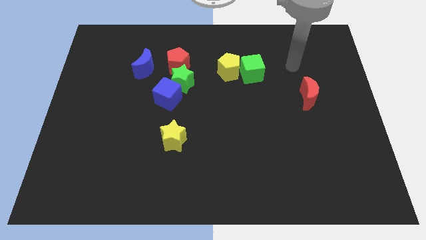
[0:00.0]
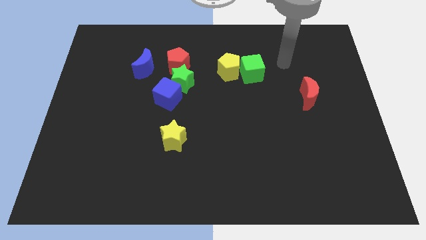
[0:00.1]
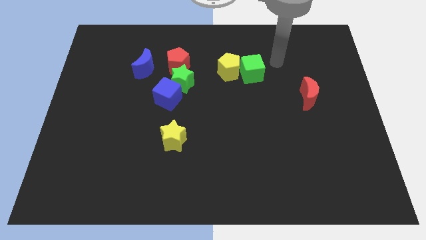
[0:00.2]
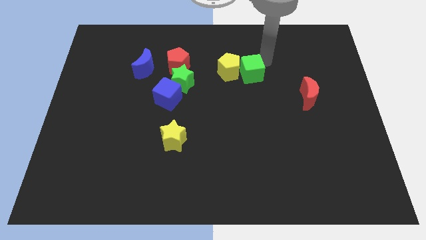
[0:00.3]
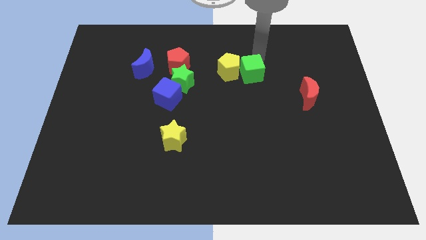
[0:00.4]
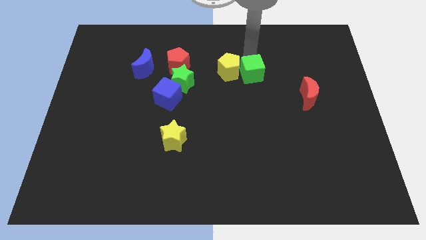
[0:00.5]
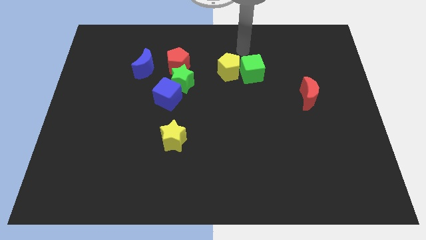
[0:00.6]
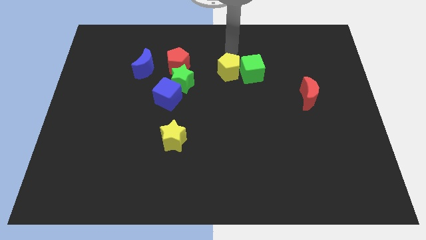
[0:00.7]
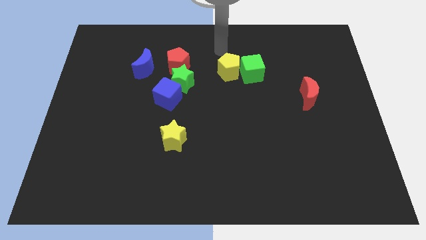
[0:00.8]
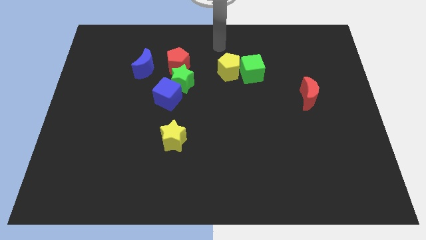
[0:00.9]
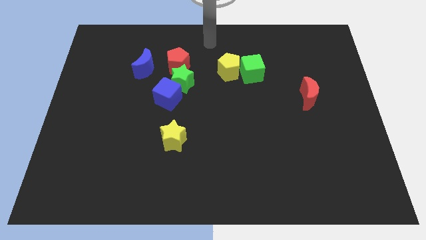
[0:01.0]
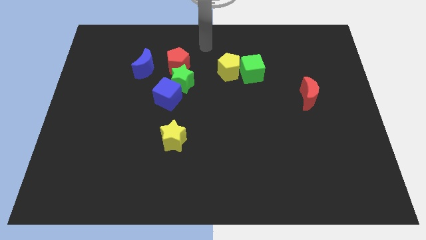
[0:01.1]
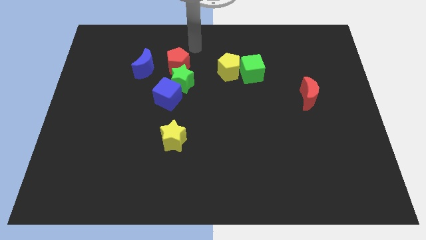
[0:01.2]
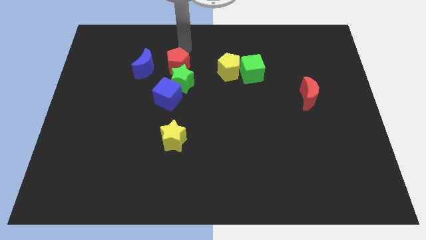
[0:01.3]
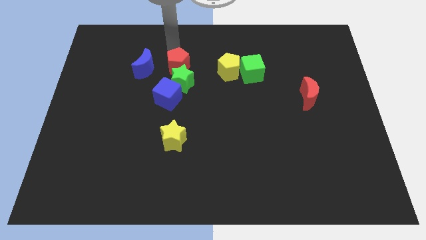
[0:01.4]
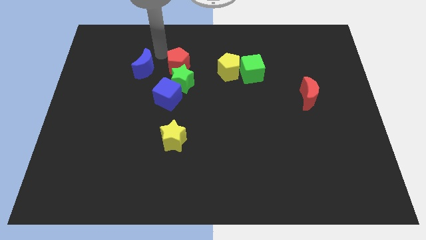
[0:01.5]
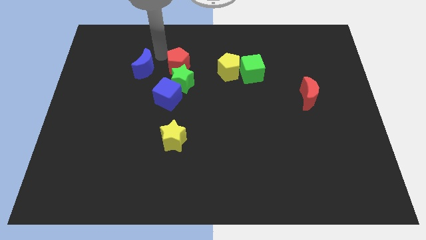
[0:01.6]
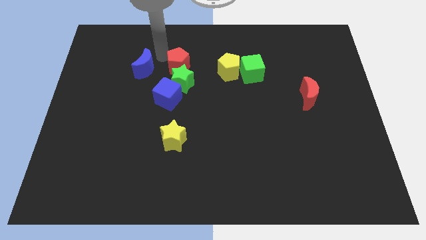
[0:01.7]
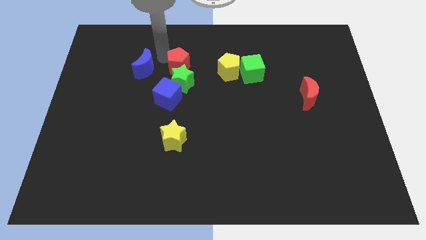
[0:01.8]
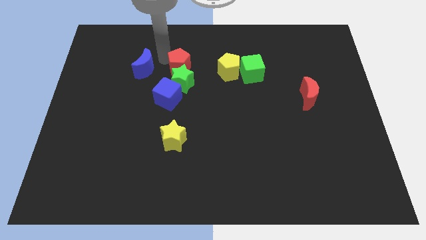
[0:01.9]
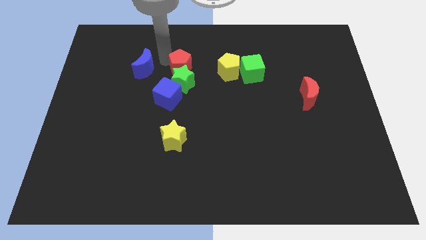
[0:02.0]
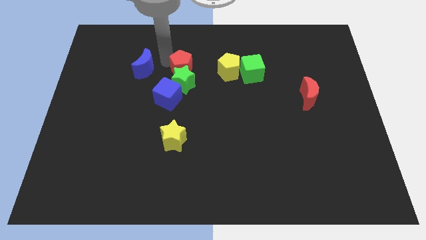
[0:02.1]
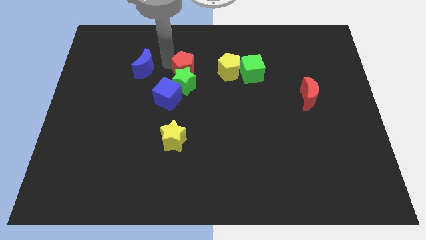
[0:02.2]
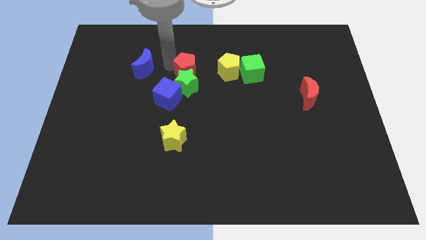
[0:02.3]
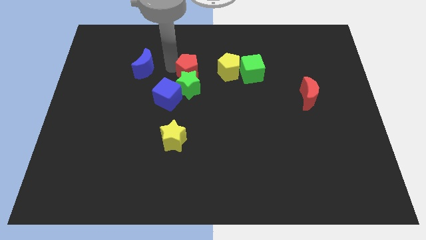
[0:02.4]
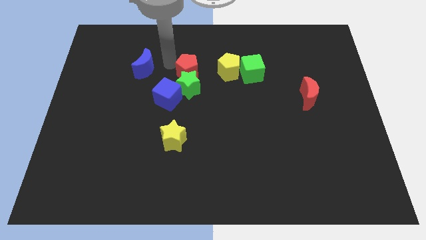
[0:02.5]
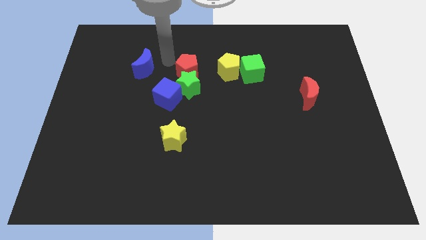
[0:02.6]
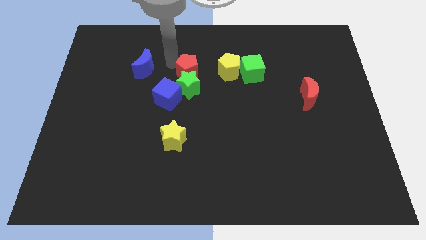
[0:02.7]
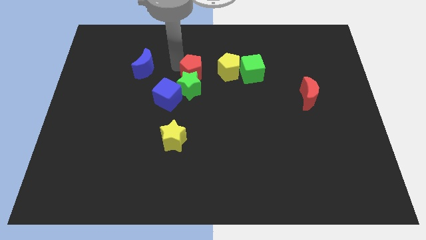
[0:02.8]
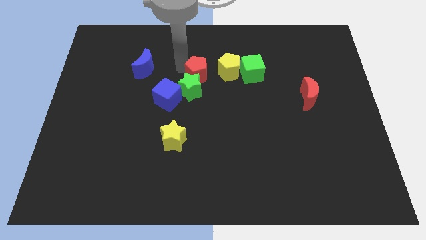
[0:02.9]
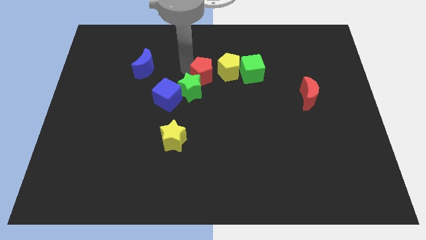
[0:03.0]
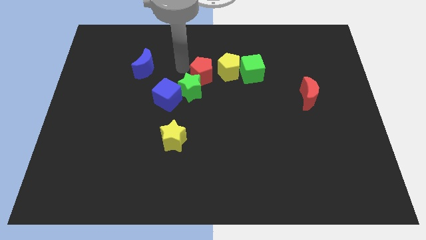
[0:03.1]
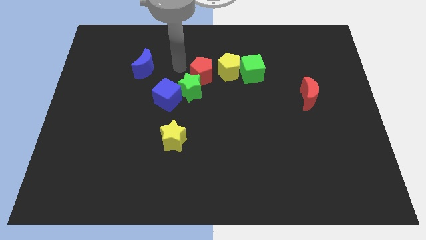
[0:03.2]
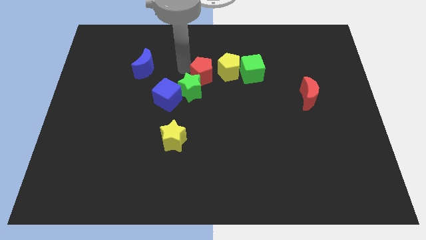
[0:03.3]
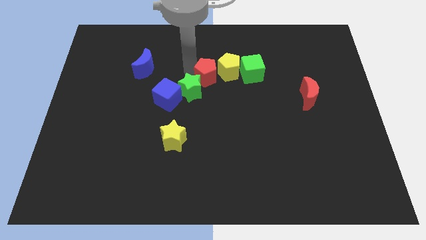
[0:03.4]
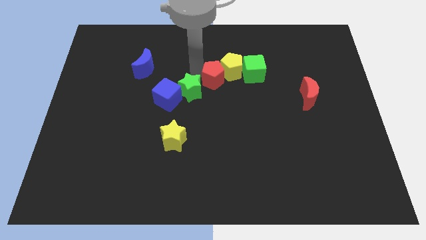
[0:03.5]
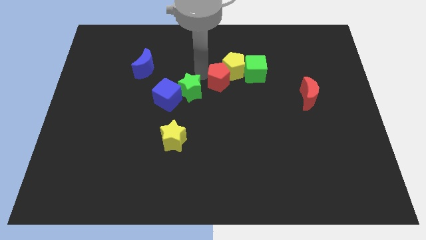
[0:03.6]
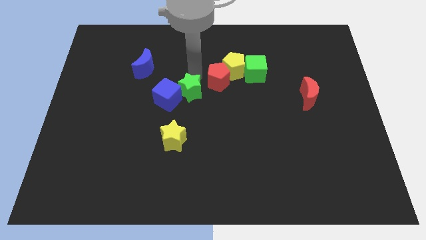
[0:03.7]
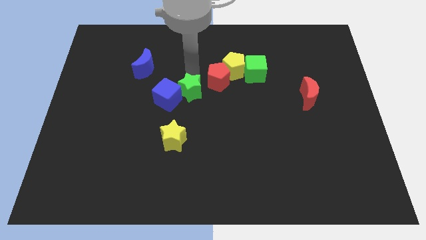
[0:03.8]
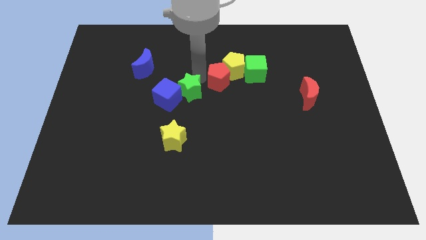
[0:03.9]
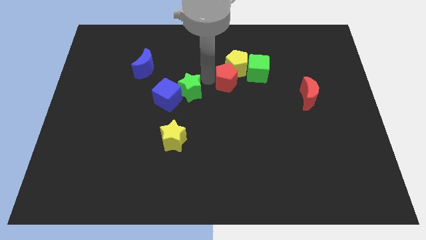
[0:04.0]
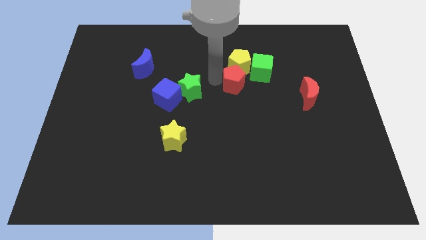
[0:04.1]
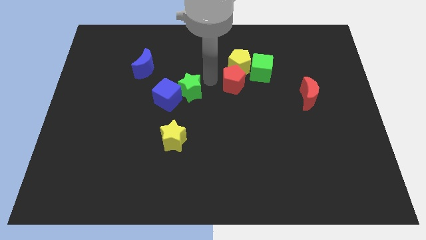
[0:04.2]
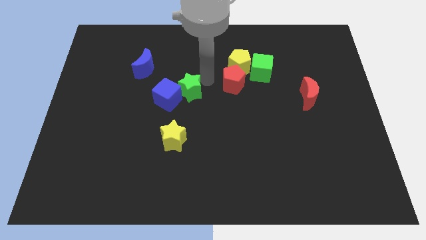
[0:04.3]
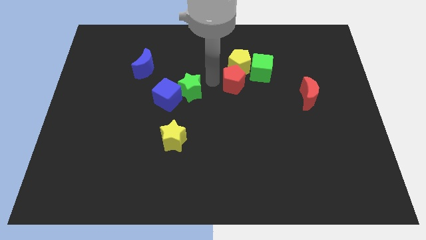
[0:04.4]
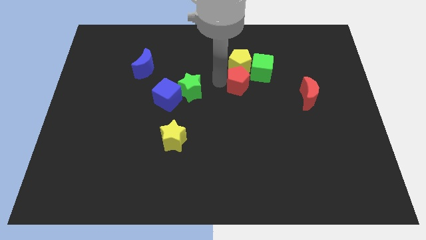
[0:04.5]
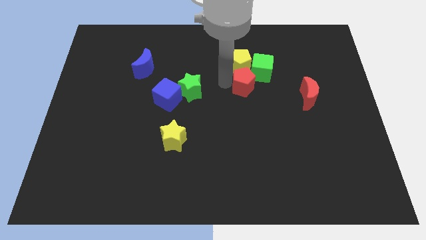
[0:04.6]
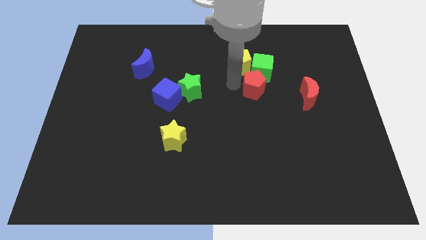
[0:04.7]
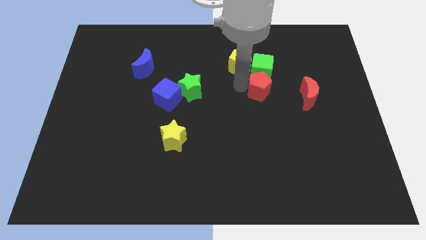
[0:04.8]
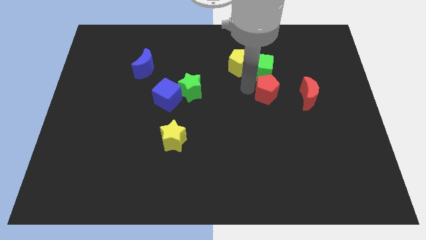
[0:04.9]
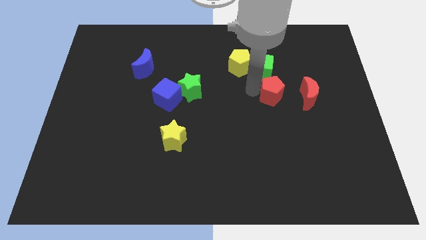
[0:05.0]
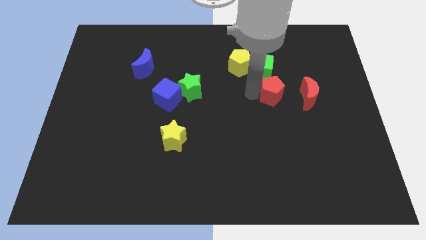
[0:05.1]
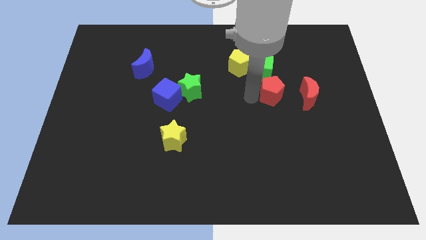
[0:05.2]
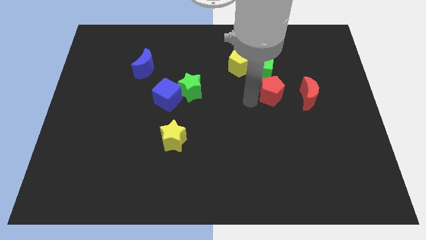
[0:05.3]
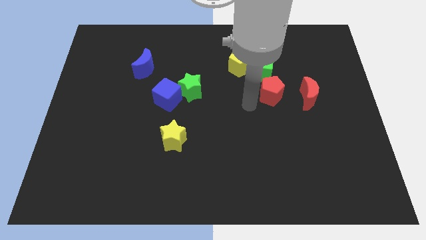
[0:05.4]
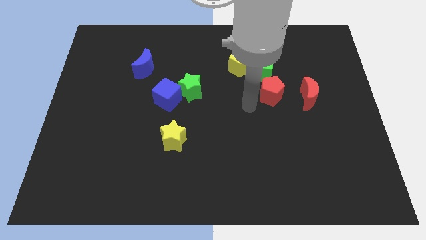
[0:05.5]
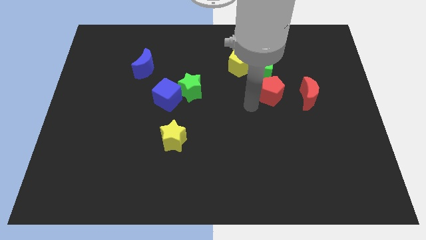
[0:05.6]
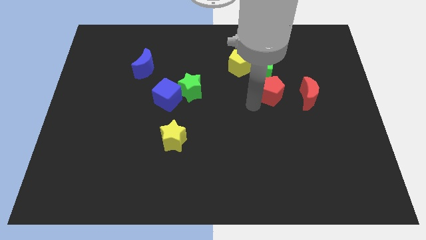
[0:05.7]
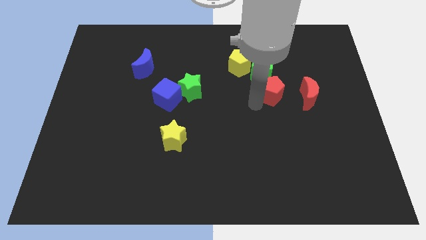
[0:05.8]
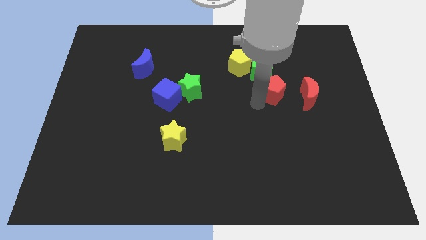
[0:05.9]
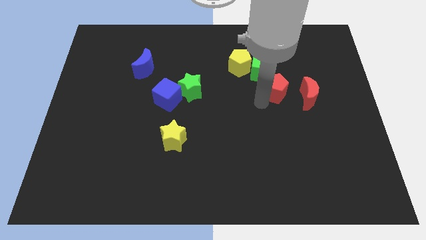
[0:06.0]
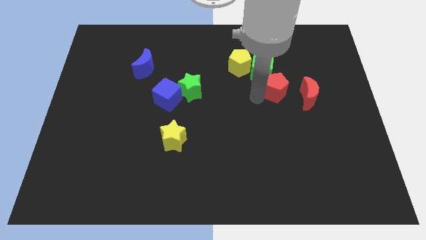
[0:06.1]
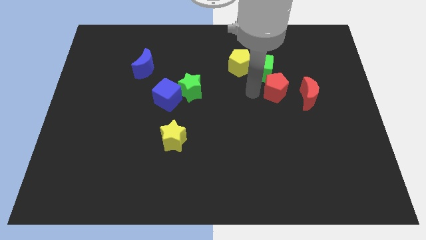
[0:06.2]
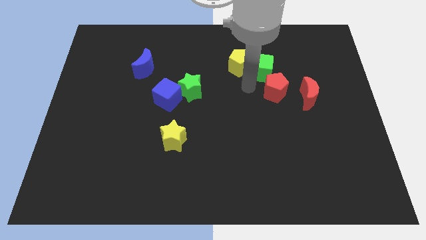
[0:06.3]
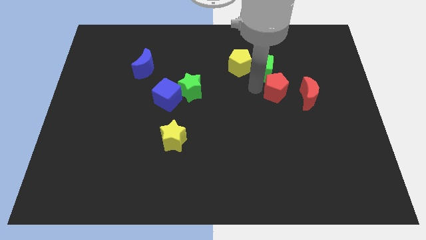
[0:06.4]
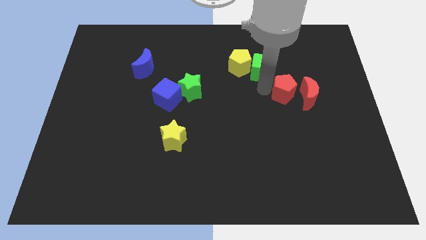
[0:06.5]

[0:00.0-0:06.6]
push the red pentagon next to the red moon
